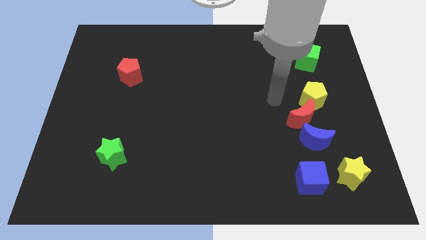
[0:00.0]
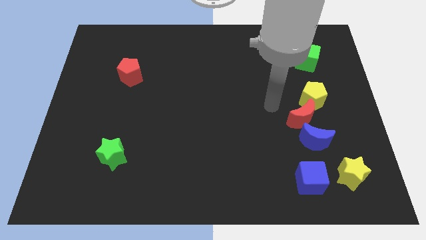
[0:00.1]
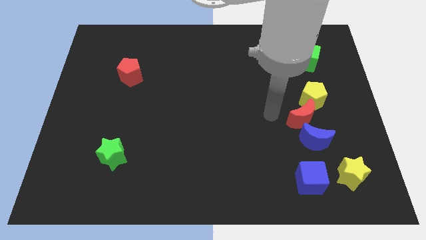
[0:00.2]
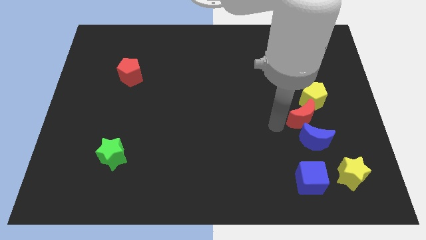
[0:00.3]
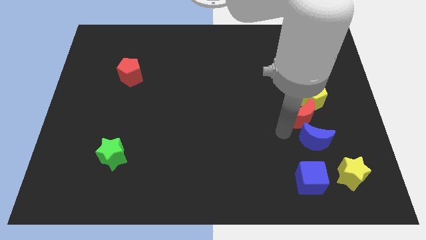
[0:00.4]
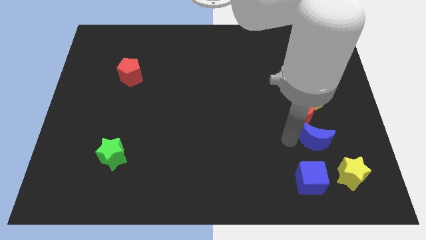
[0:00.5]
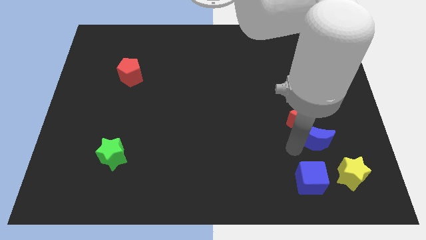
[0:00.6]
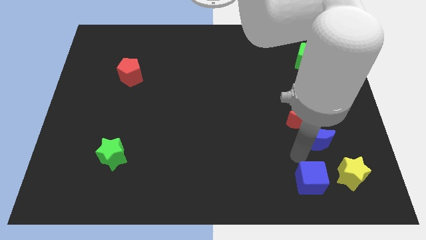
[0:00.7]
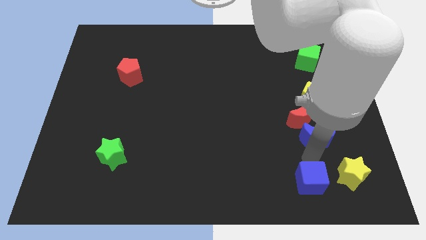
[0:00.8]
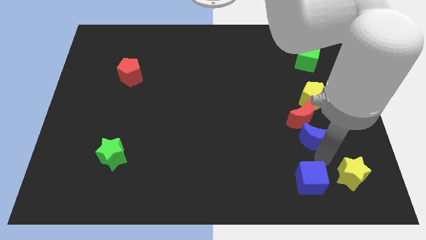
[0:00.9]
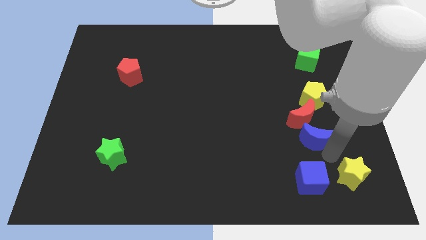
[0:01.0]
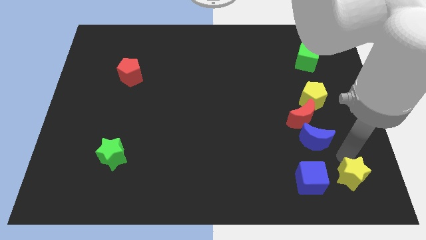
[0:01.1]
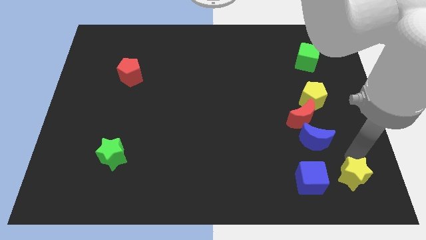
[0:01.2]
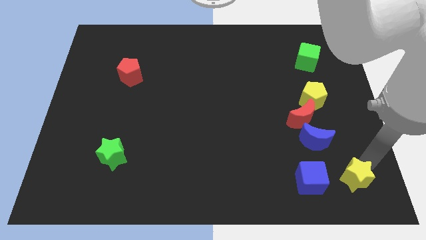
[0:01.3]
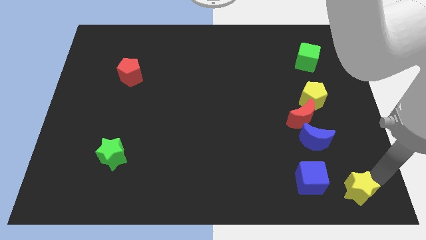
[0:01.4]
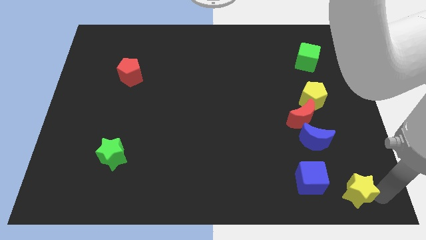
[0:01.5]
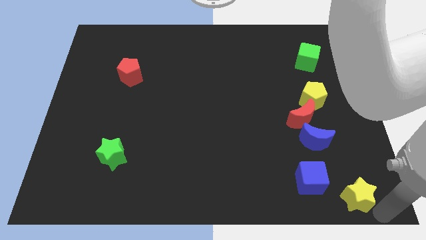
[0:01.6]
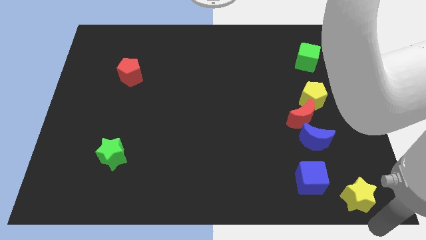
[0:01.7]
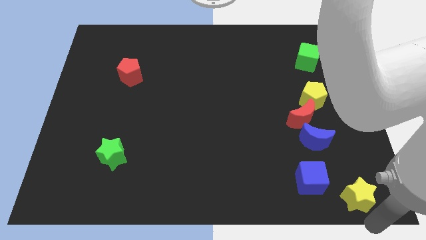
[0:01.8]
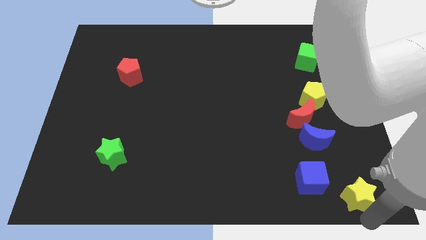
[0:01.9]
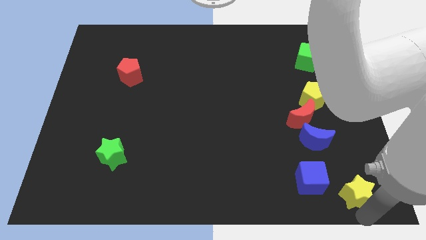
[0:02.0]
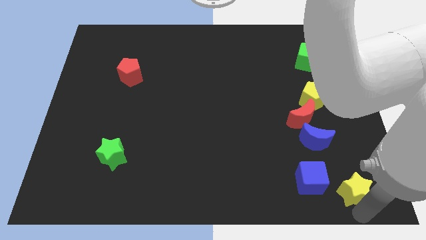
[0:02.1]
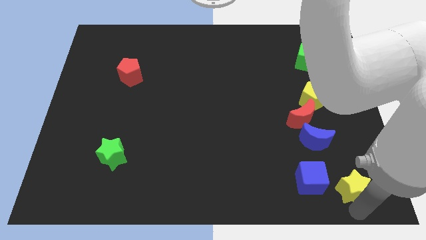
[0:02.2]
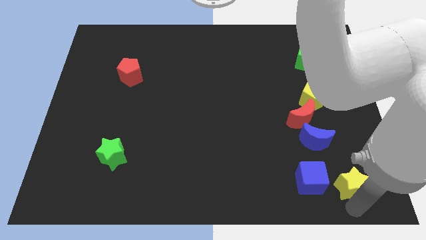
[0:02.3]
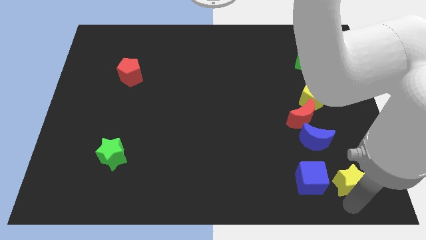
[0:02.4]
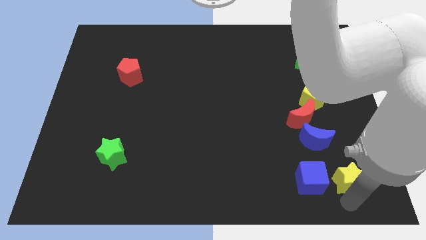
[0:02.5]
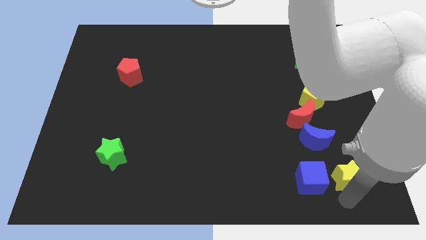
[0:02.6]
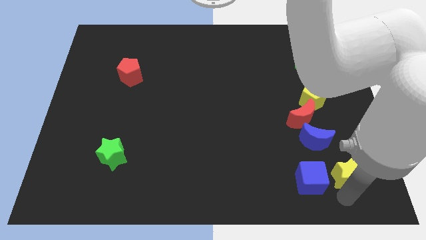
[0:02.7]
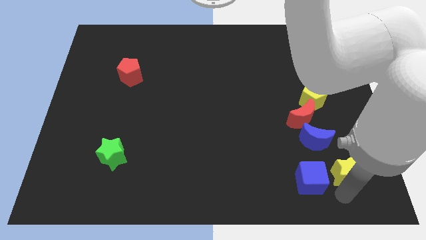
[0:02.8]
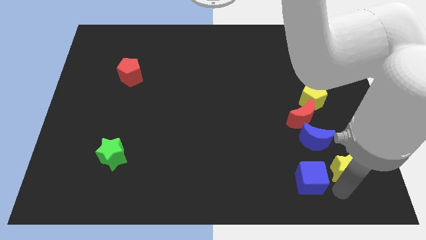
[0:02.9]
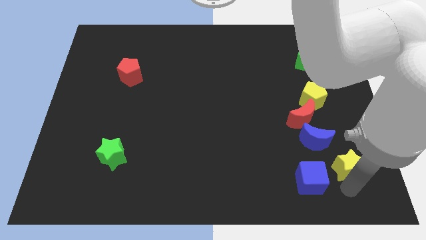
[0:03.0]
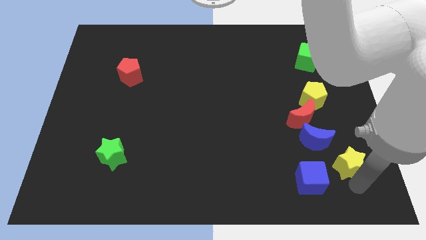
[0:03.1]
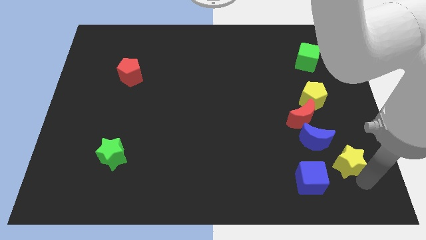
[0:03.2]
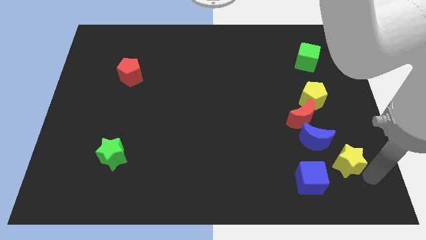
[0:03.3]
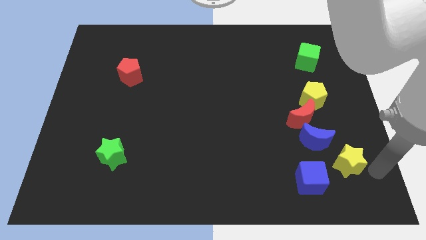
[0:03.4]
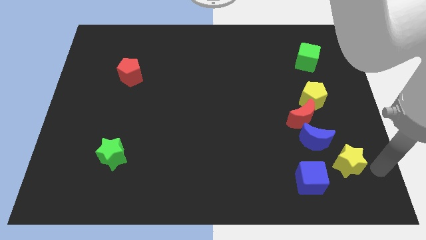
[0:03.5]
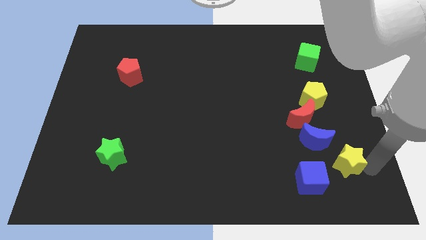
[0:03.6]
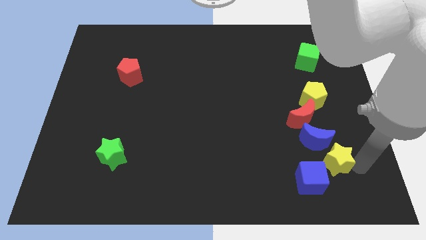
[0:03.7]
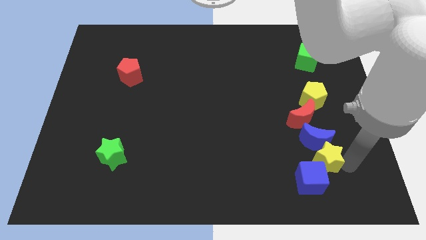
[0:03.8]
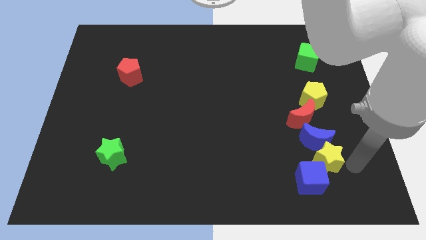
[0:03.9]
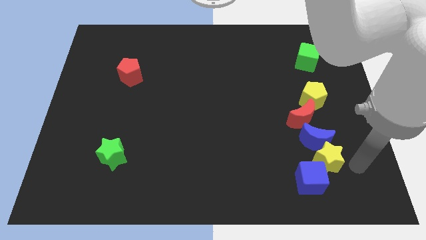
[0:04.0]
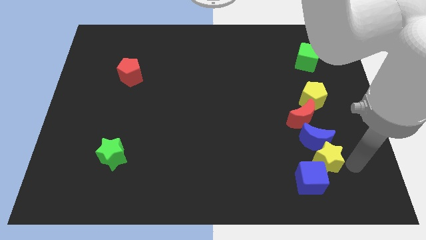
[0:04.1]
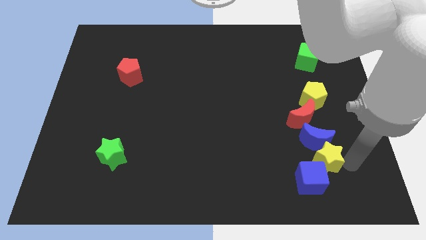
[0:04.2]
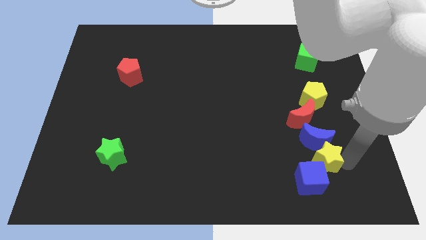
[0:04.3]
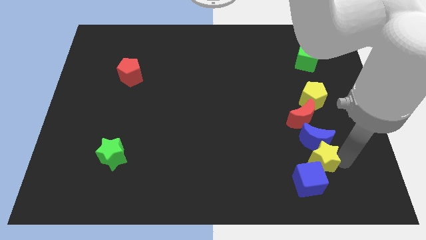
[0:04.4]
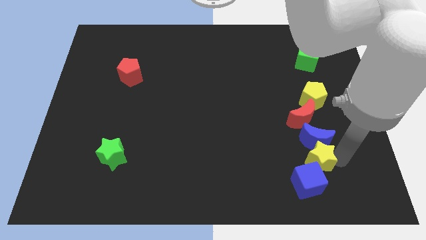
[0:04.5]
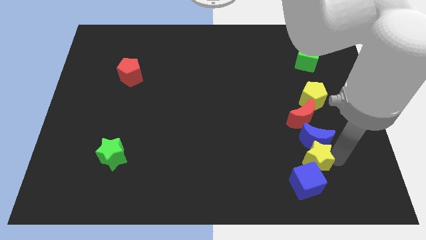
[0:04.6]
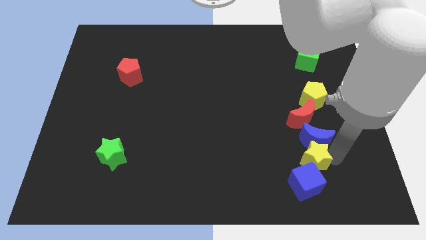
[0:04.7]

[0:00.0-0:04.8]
move the yellow star left a bit

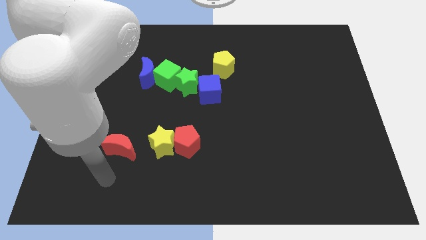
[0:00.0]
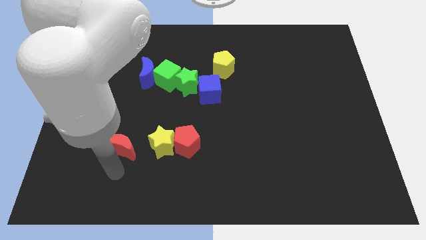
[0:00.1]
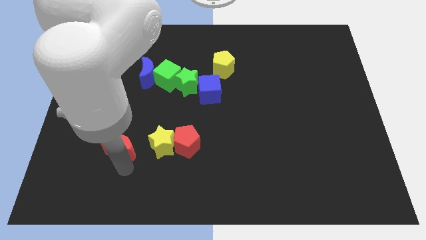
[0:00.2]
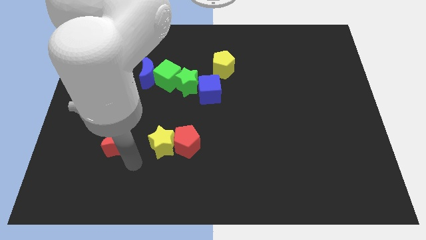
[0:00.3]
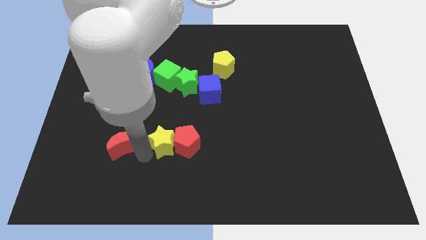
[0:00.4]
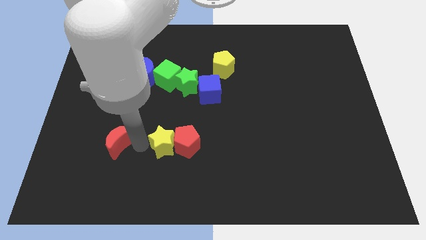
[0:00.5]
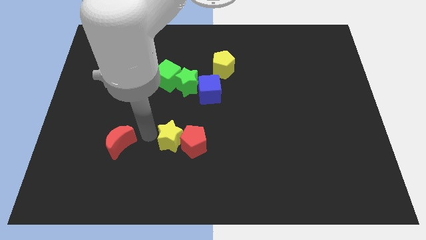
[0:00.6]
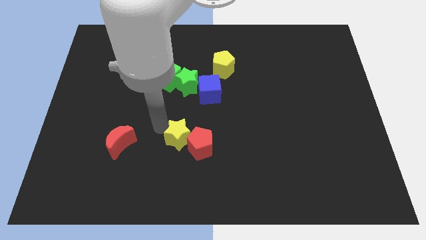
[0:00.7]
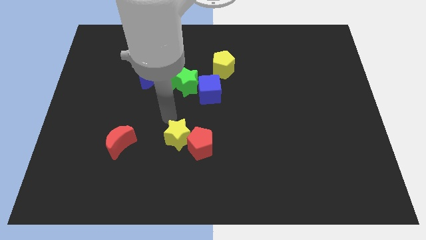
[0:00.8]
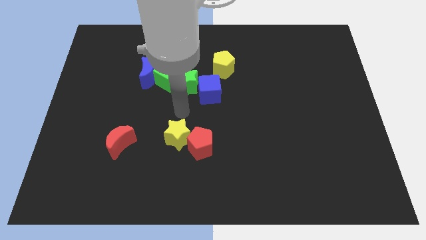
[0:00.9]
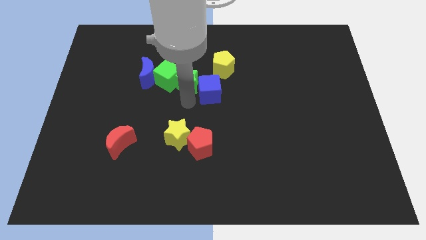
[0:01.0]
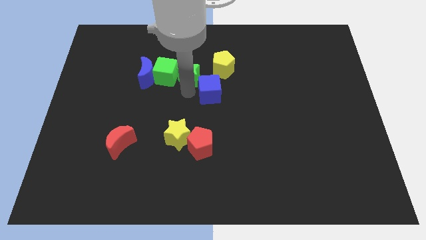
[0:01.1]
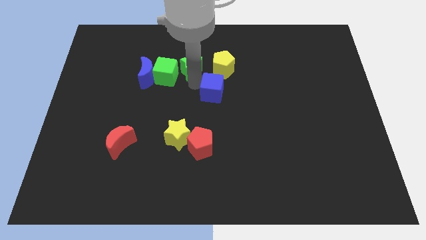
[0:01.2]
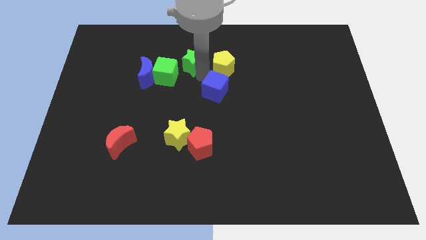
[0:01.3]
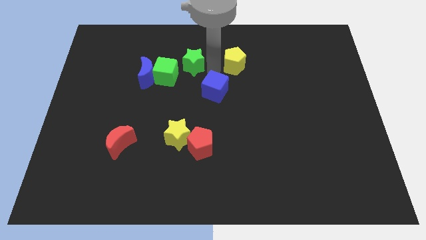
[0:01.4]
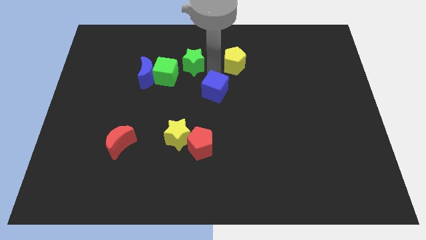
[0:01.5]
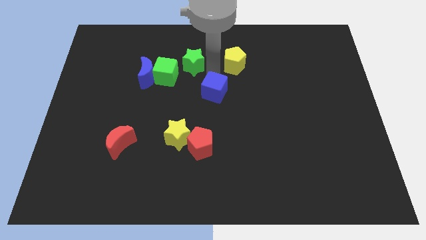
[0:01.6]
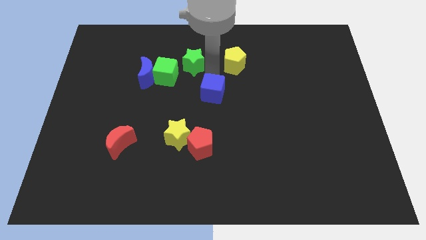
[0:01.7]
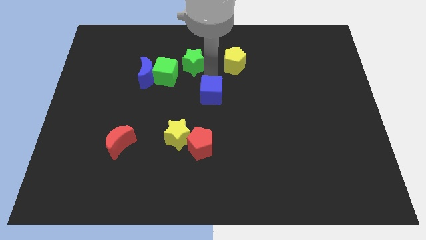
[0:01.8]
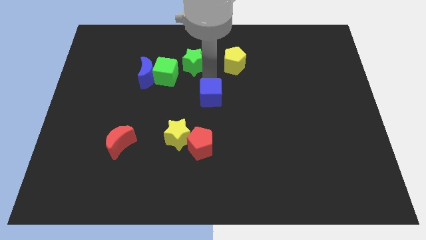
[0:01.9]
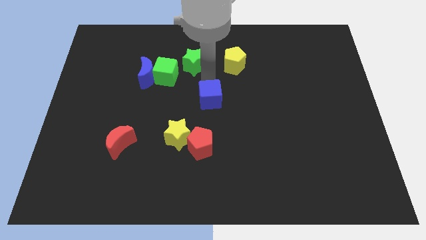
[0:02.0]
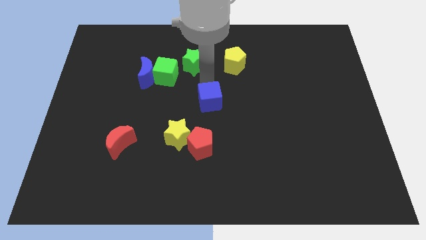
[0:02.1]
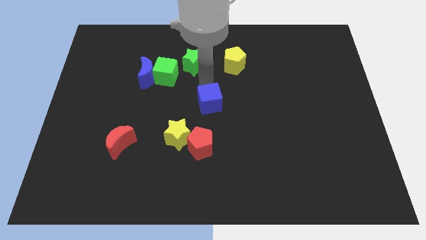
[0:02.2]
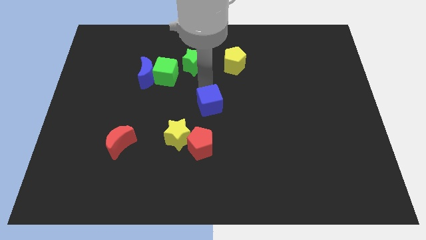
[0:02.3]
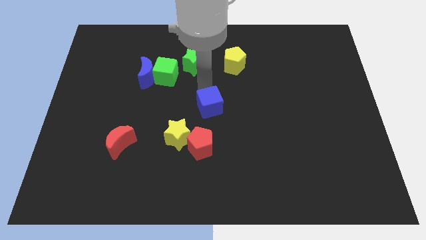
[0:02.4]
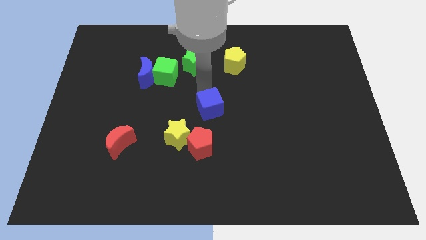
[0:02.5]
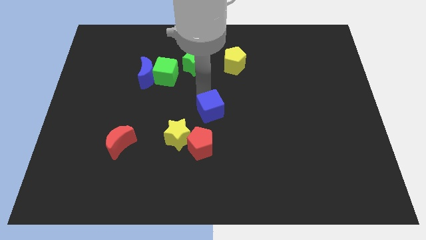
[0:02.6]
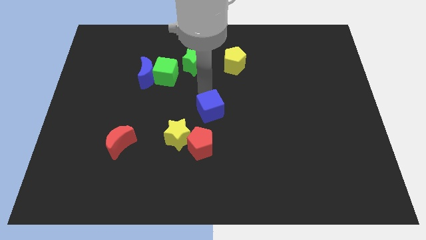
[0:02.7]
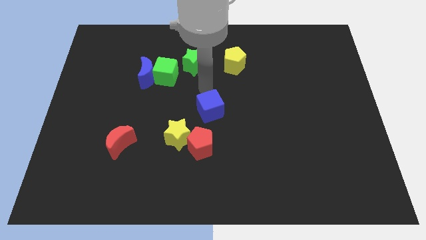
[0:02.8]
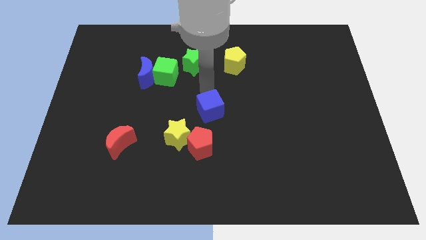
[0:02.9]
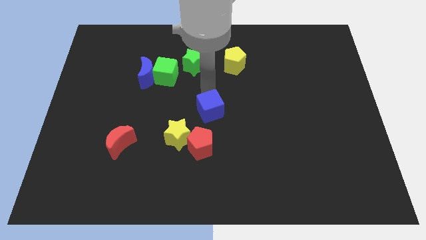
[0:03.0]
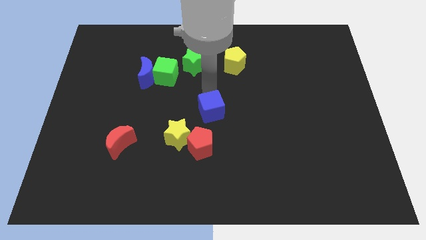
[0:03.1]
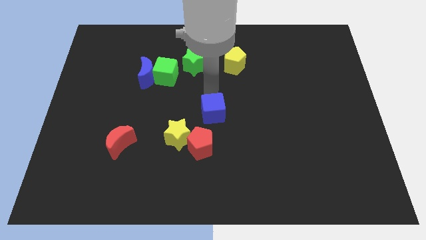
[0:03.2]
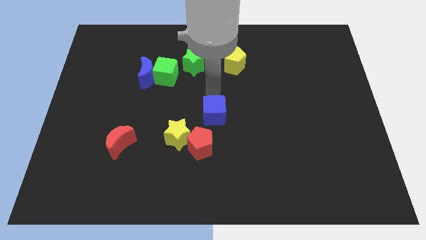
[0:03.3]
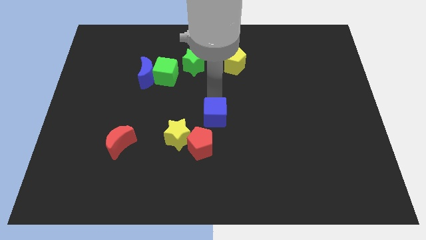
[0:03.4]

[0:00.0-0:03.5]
move the blue cube slightly down
